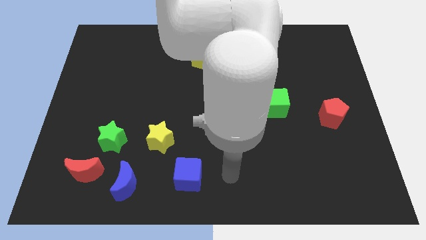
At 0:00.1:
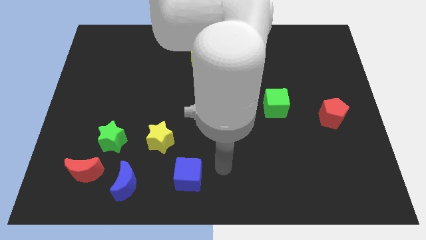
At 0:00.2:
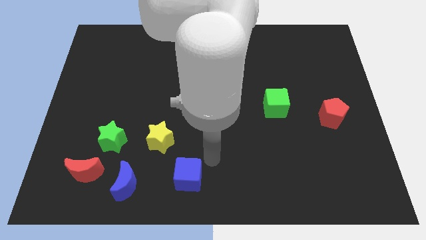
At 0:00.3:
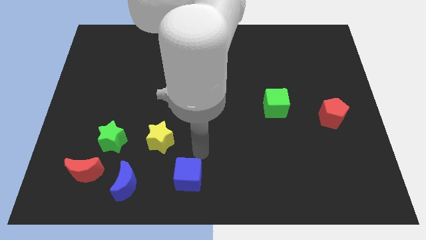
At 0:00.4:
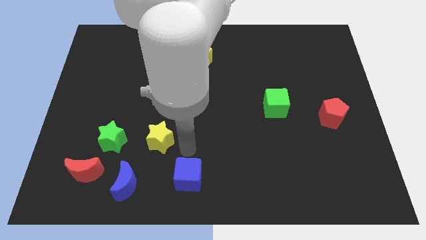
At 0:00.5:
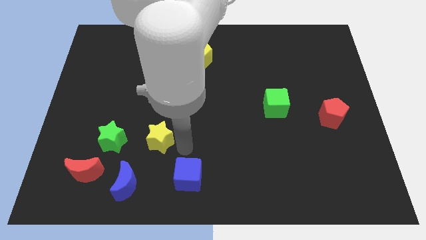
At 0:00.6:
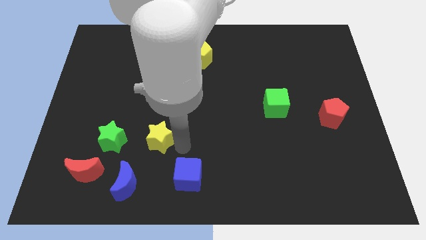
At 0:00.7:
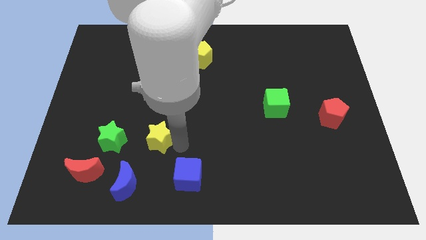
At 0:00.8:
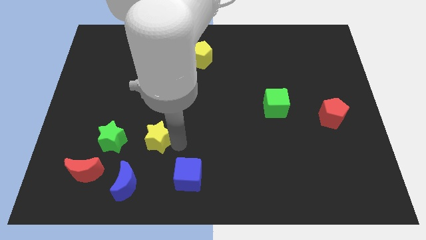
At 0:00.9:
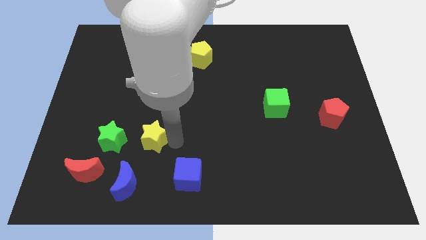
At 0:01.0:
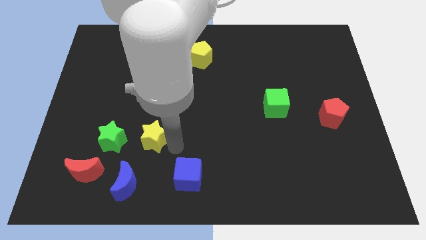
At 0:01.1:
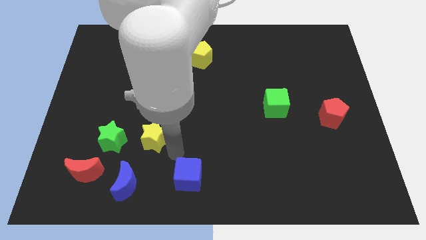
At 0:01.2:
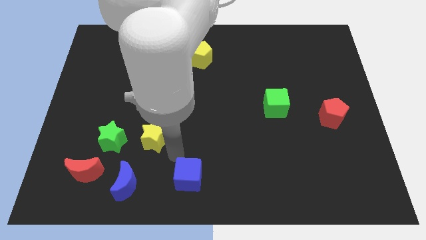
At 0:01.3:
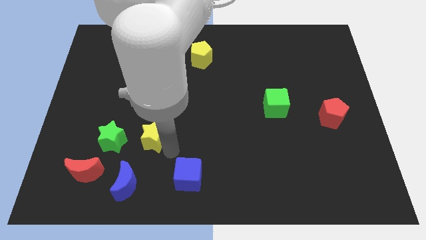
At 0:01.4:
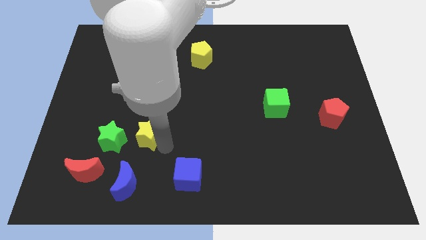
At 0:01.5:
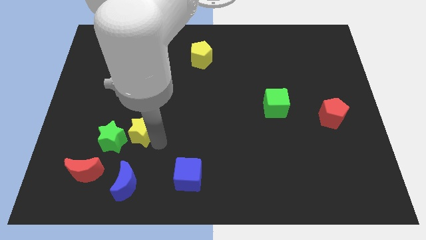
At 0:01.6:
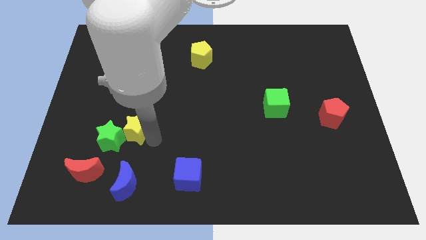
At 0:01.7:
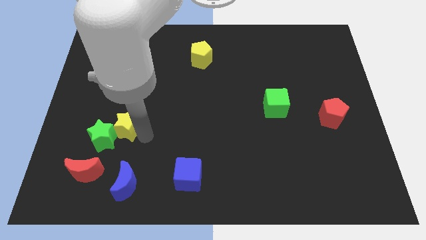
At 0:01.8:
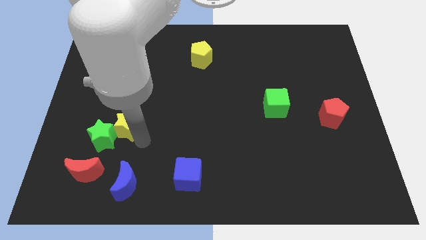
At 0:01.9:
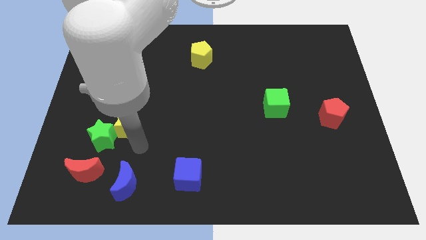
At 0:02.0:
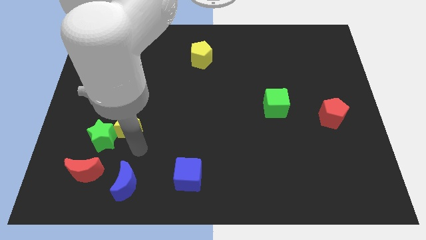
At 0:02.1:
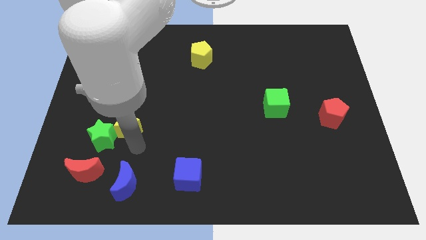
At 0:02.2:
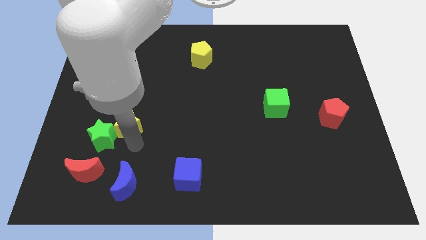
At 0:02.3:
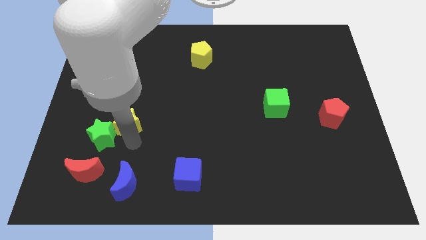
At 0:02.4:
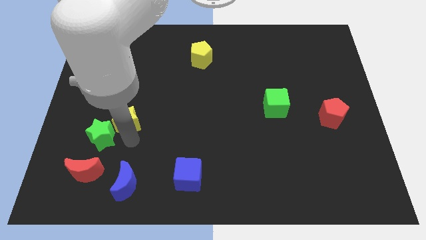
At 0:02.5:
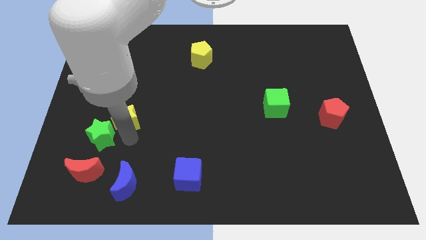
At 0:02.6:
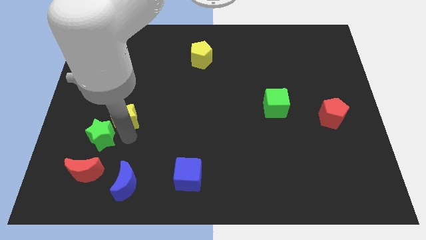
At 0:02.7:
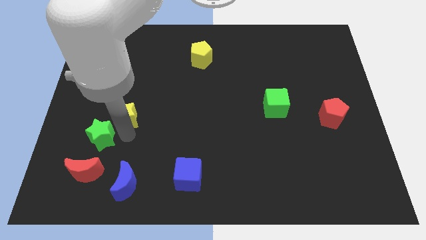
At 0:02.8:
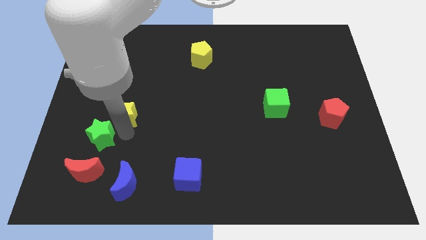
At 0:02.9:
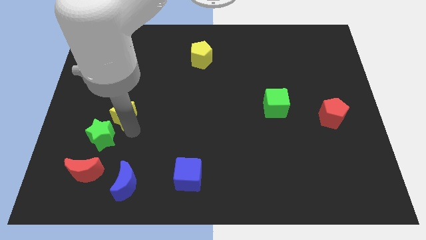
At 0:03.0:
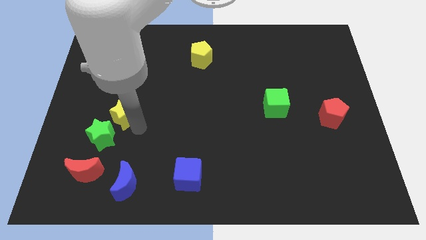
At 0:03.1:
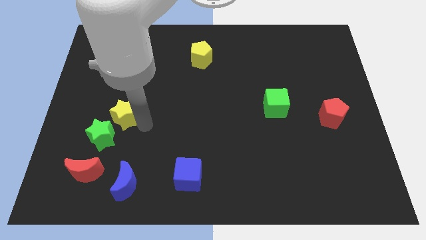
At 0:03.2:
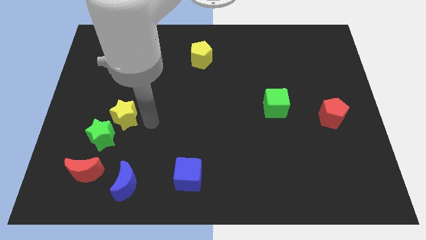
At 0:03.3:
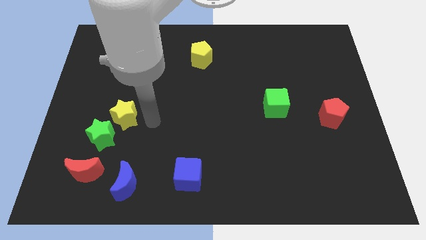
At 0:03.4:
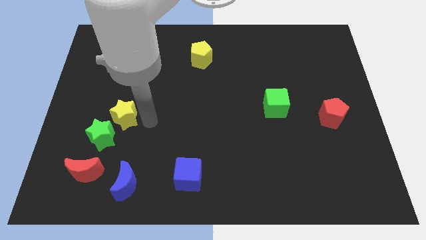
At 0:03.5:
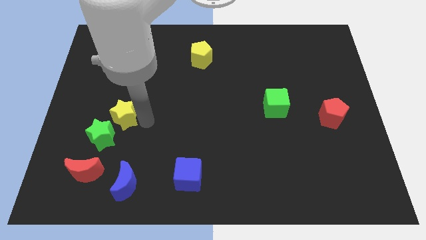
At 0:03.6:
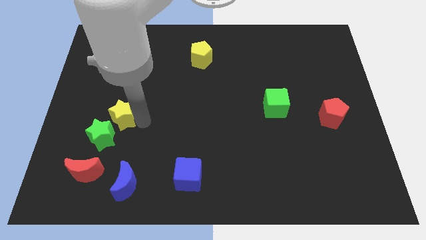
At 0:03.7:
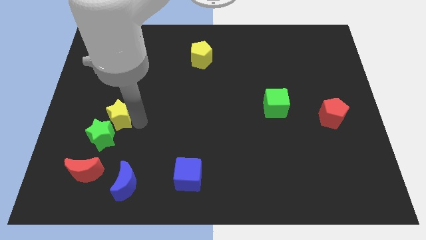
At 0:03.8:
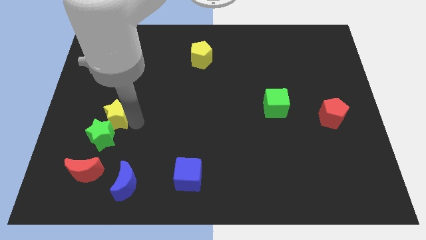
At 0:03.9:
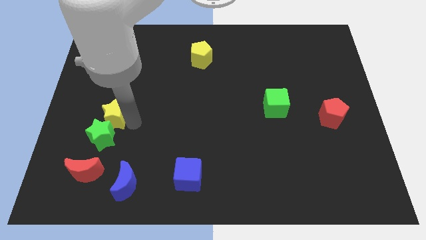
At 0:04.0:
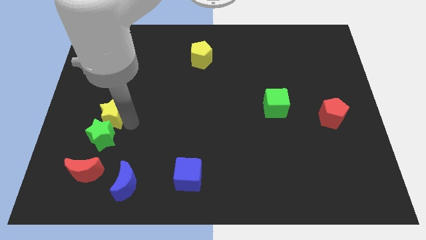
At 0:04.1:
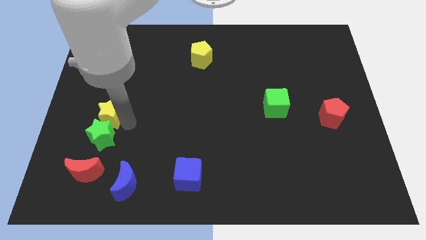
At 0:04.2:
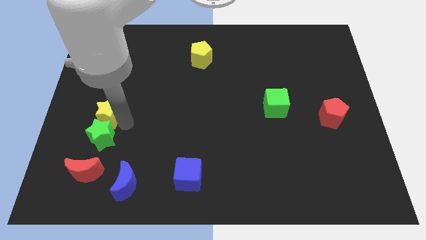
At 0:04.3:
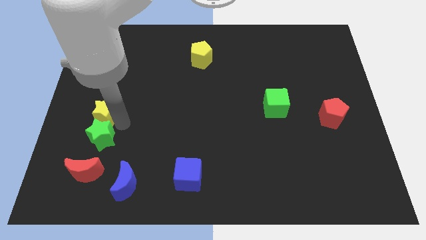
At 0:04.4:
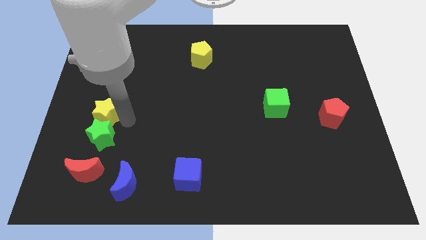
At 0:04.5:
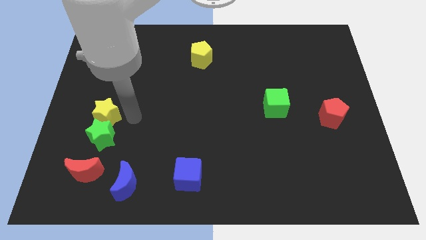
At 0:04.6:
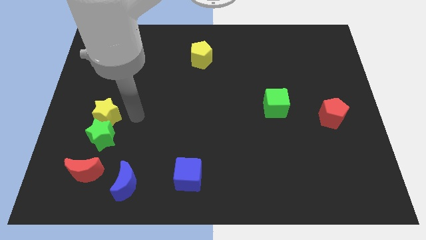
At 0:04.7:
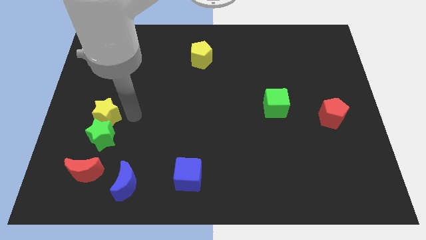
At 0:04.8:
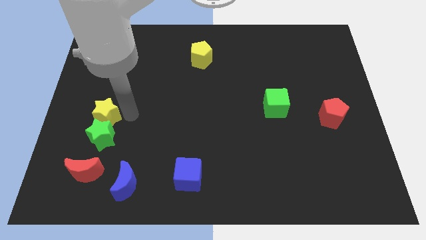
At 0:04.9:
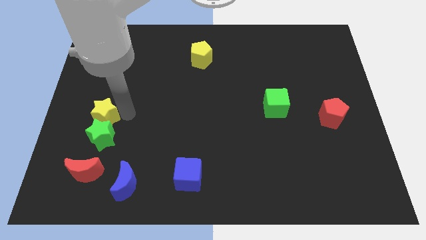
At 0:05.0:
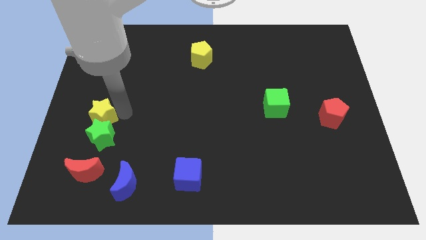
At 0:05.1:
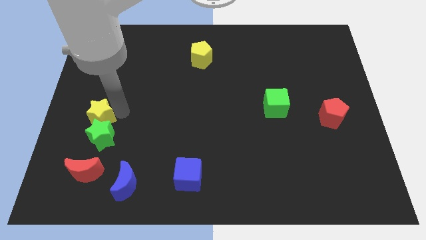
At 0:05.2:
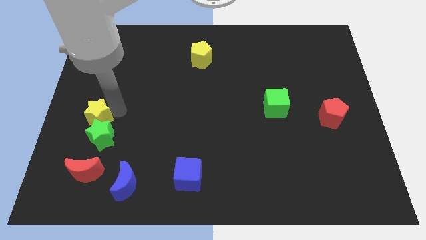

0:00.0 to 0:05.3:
move the yellow star to the left side of the board

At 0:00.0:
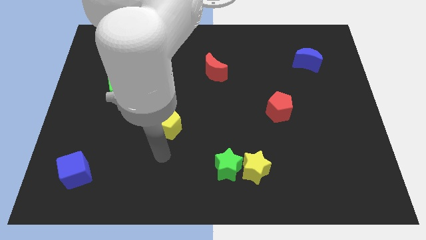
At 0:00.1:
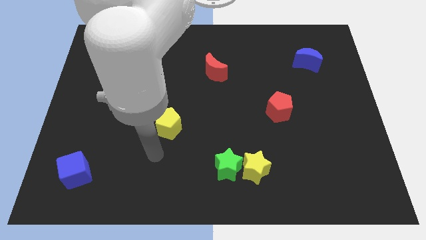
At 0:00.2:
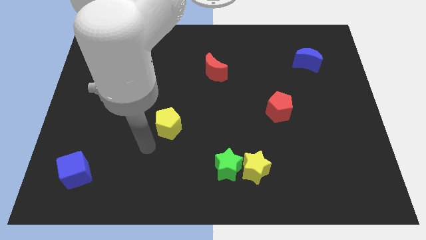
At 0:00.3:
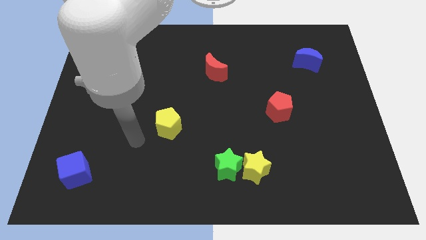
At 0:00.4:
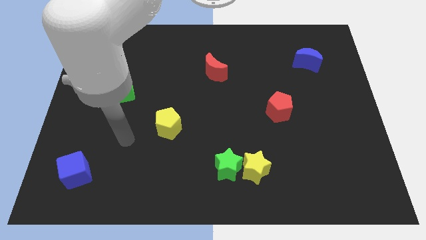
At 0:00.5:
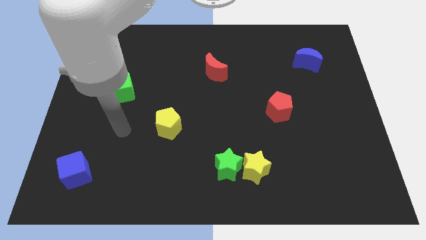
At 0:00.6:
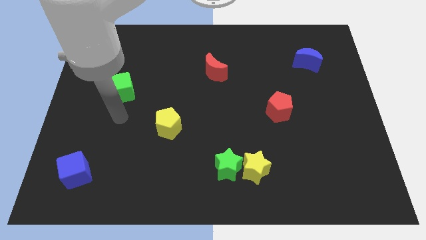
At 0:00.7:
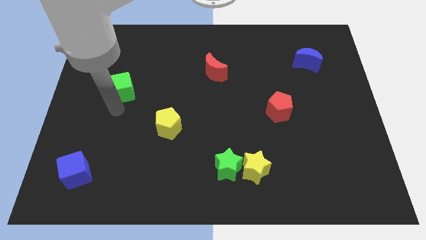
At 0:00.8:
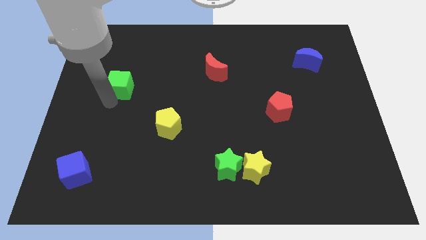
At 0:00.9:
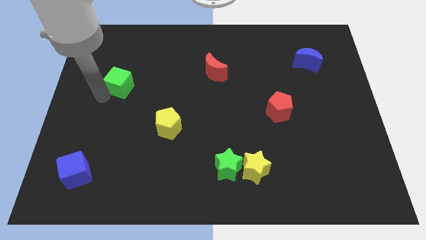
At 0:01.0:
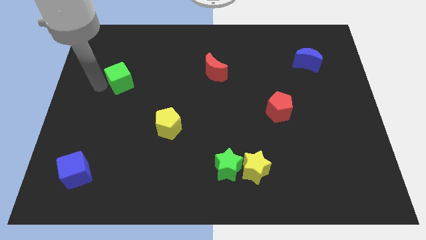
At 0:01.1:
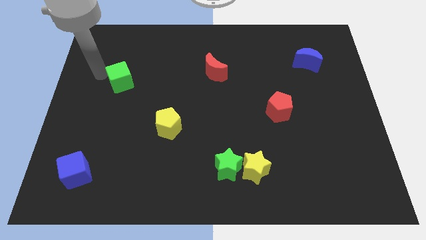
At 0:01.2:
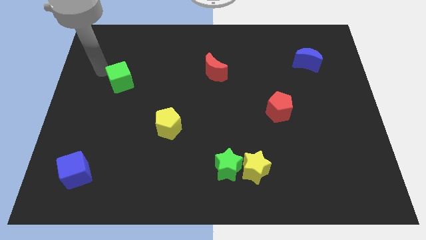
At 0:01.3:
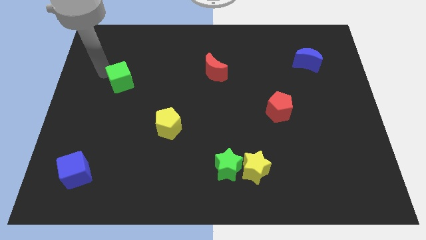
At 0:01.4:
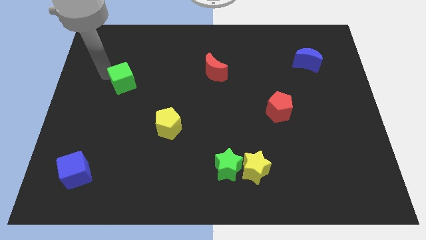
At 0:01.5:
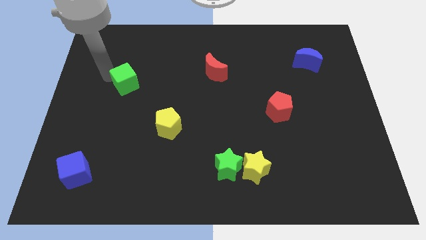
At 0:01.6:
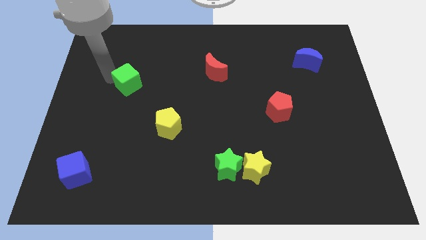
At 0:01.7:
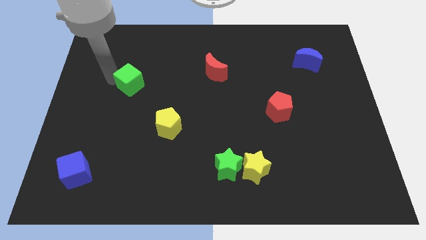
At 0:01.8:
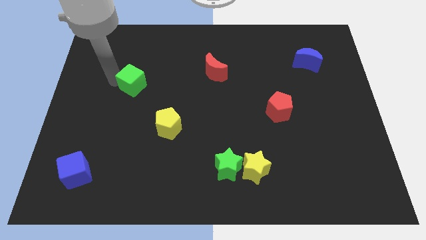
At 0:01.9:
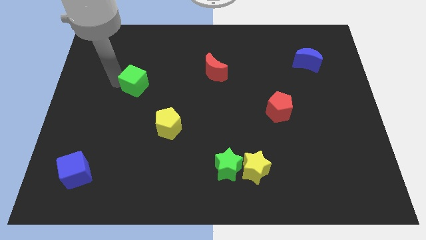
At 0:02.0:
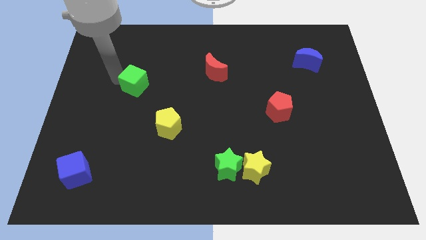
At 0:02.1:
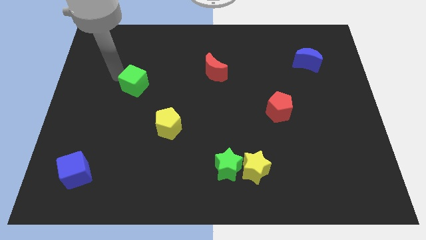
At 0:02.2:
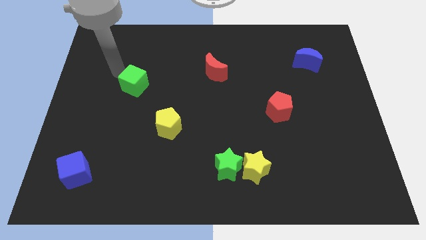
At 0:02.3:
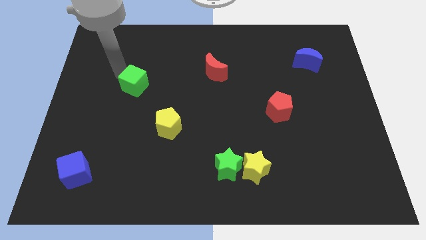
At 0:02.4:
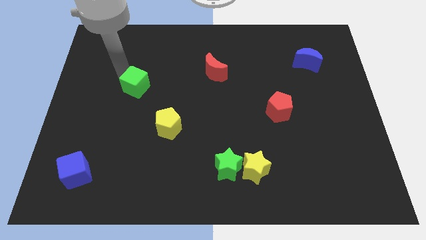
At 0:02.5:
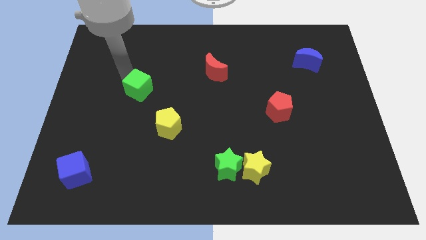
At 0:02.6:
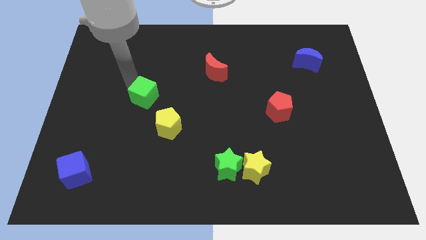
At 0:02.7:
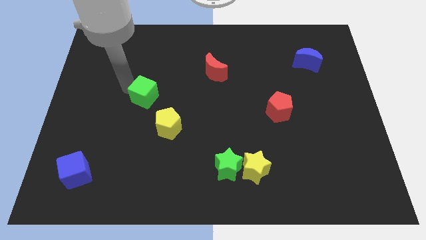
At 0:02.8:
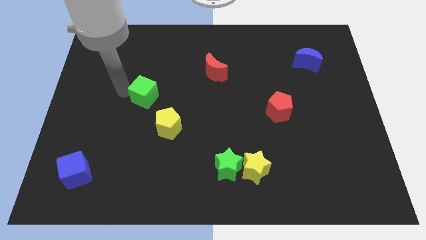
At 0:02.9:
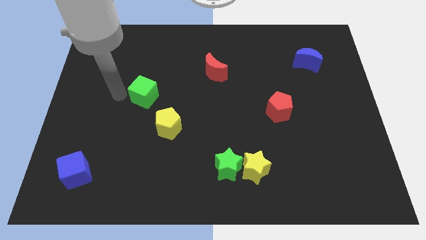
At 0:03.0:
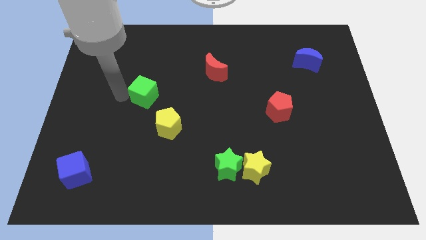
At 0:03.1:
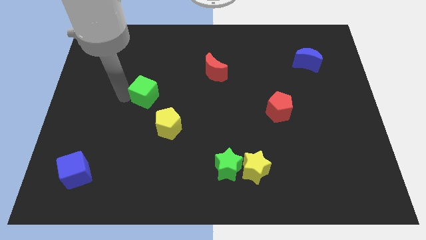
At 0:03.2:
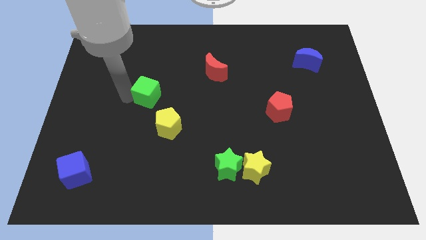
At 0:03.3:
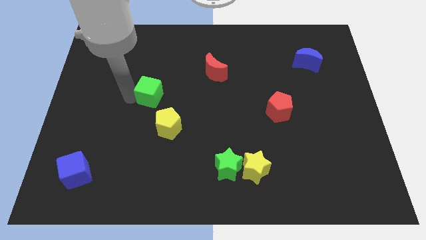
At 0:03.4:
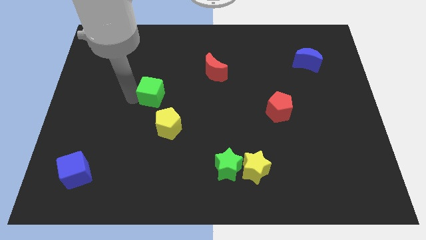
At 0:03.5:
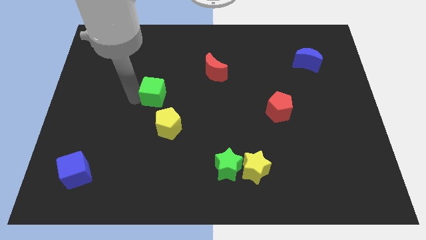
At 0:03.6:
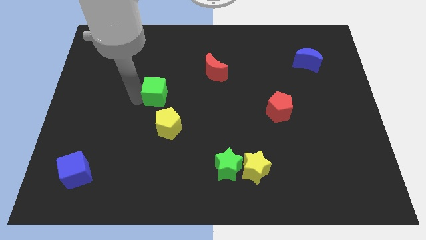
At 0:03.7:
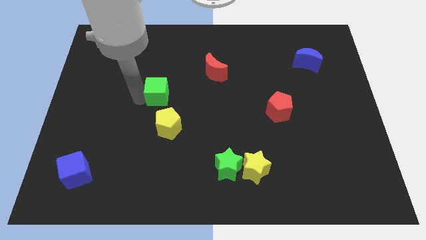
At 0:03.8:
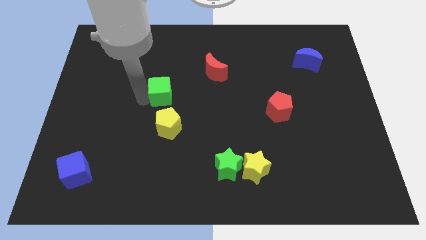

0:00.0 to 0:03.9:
put the green cube to the middle
